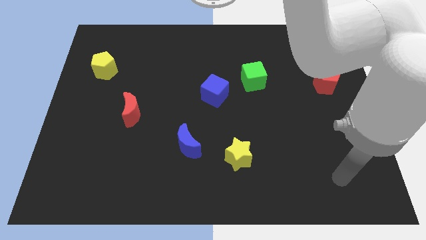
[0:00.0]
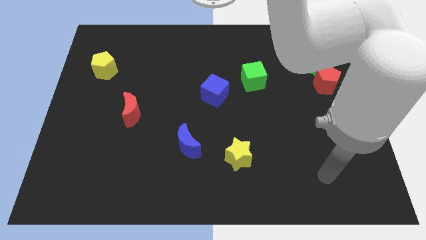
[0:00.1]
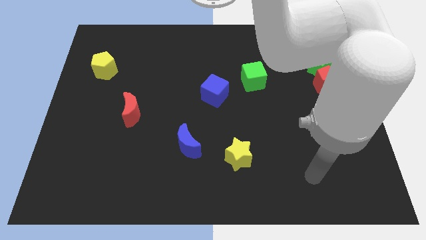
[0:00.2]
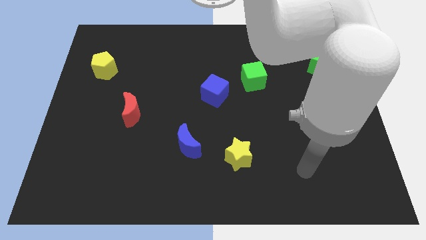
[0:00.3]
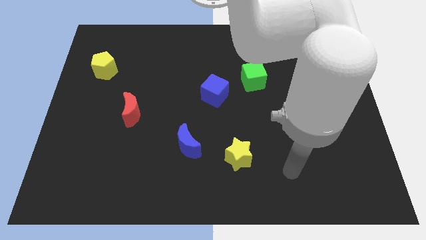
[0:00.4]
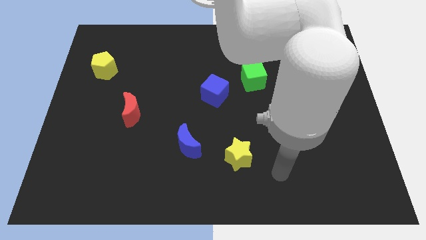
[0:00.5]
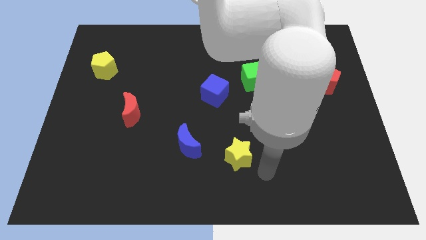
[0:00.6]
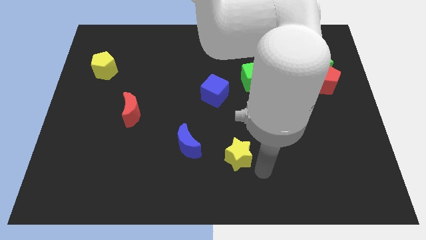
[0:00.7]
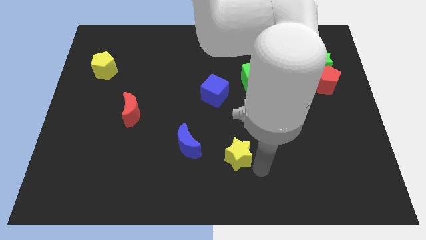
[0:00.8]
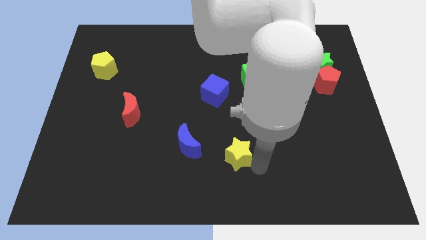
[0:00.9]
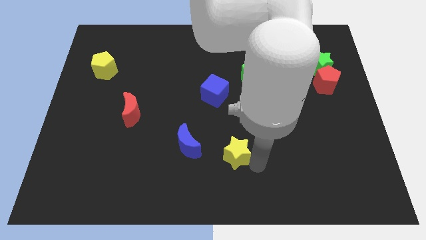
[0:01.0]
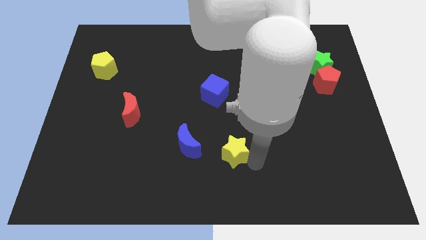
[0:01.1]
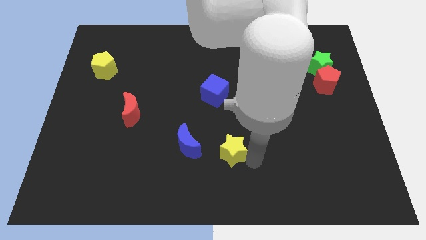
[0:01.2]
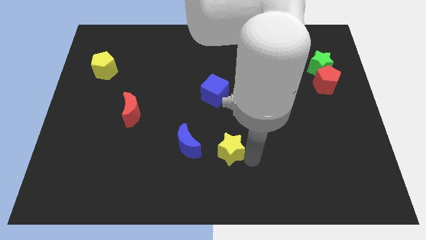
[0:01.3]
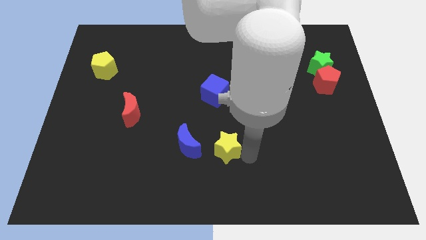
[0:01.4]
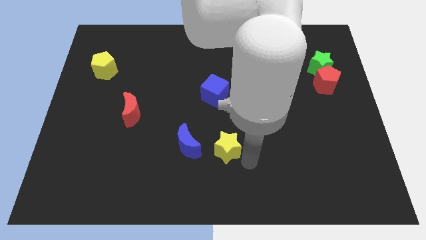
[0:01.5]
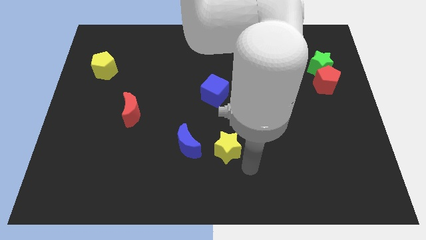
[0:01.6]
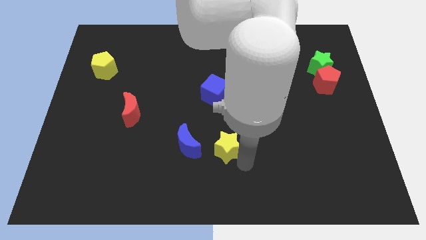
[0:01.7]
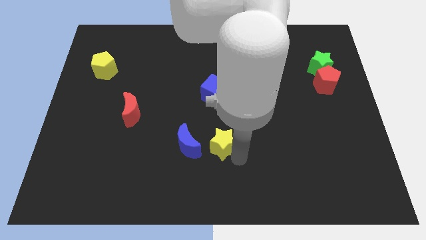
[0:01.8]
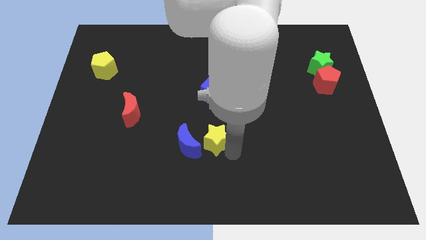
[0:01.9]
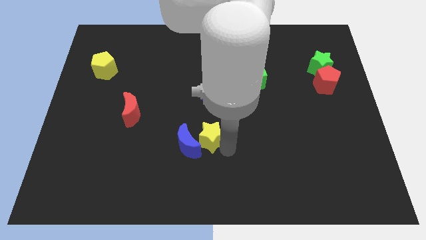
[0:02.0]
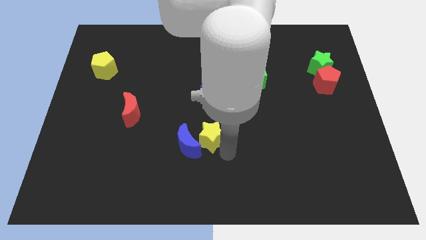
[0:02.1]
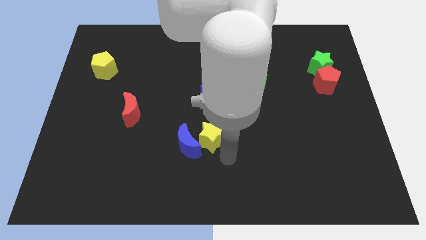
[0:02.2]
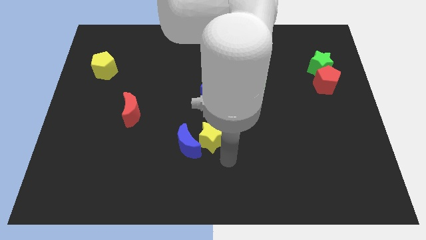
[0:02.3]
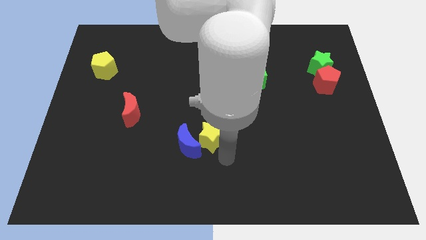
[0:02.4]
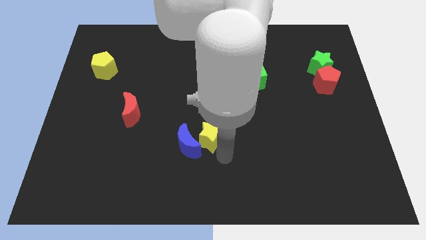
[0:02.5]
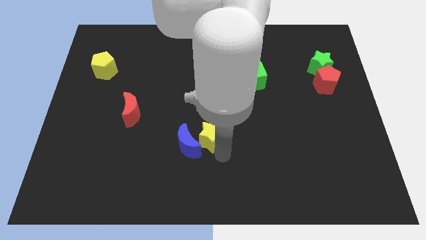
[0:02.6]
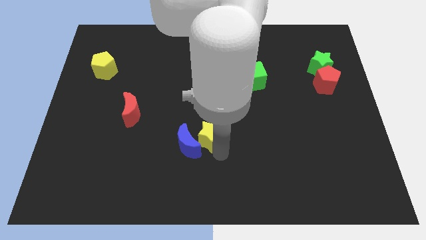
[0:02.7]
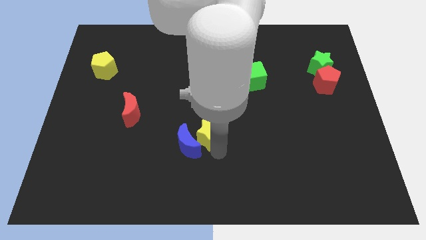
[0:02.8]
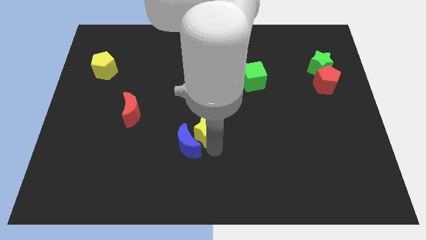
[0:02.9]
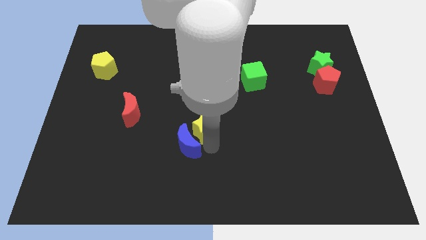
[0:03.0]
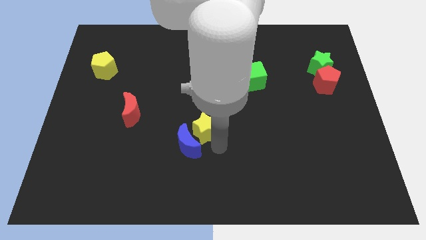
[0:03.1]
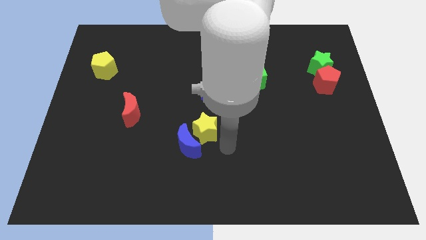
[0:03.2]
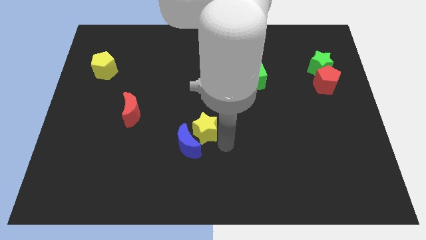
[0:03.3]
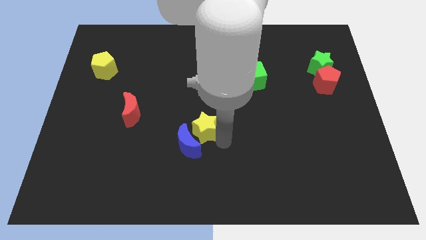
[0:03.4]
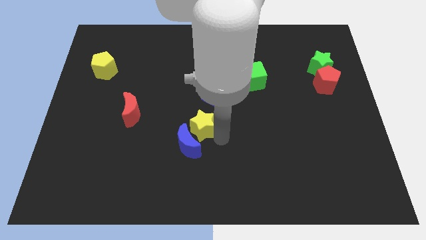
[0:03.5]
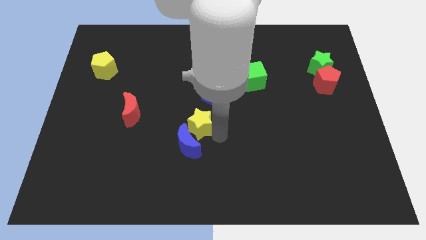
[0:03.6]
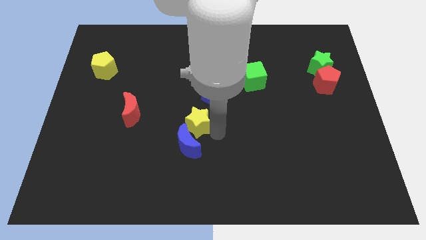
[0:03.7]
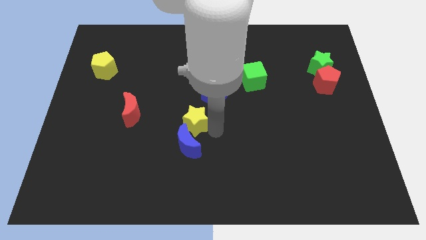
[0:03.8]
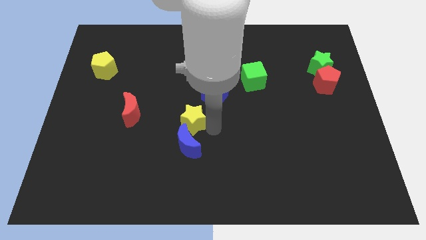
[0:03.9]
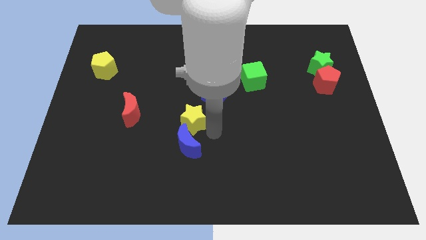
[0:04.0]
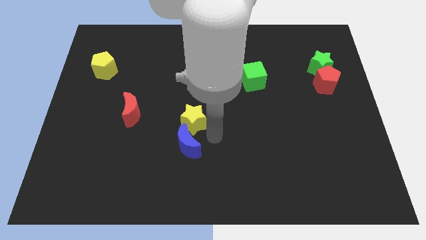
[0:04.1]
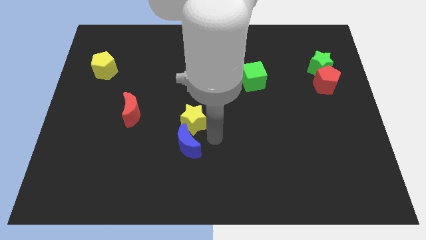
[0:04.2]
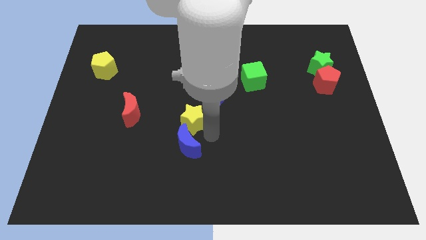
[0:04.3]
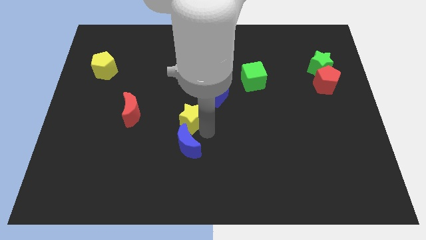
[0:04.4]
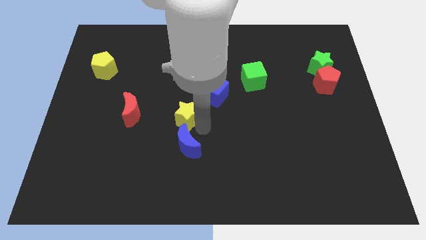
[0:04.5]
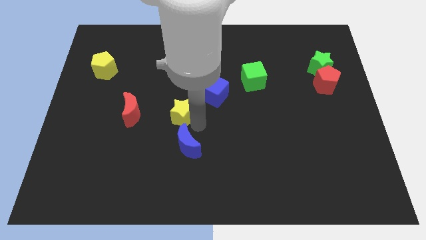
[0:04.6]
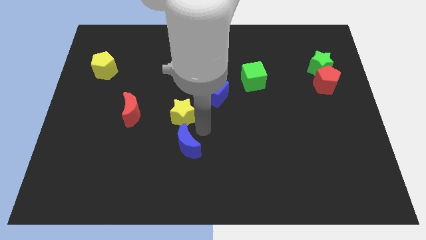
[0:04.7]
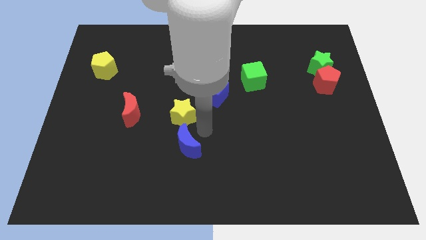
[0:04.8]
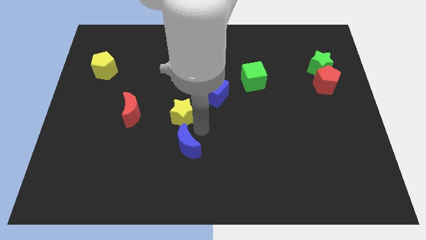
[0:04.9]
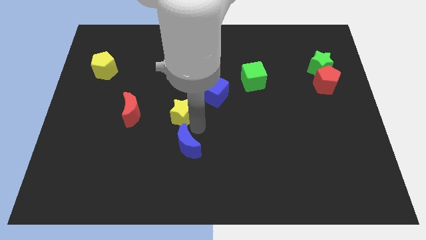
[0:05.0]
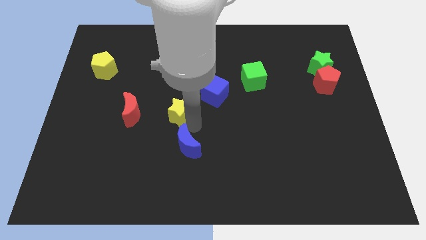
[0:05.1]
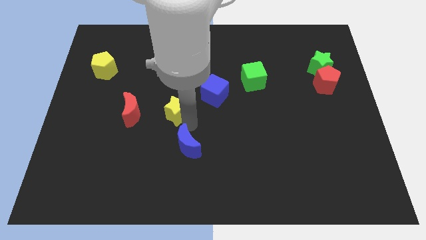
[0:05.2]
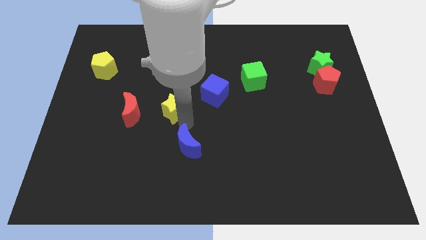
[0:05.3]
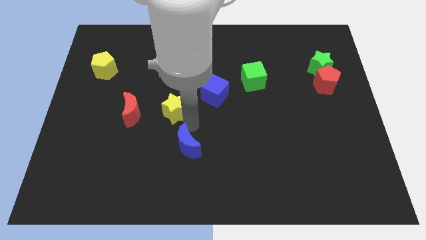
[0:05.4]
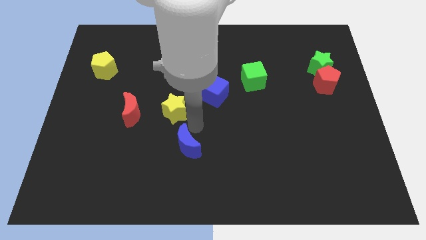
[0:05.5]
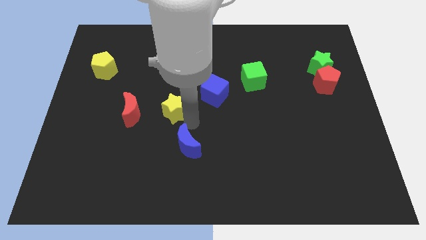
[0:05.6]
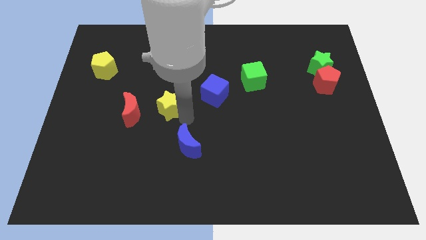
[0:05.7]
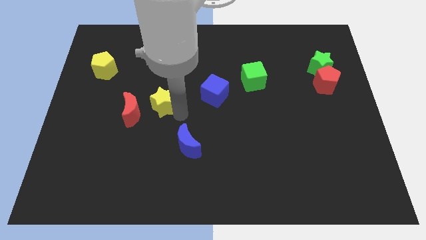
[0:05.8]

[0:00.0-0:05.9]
slide the yellow star diagonally up and to the right of the red moon

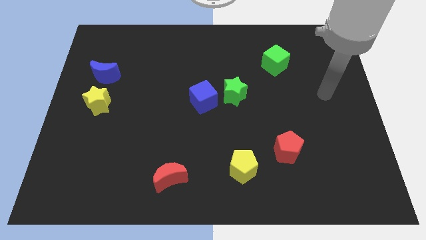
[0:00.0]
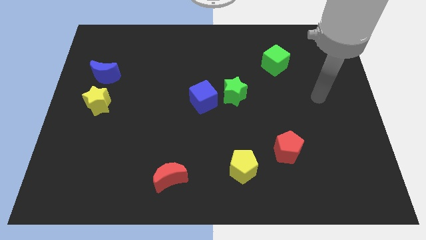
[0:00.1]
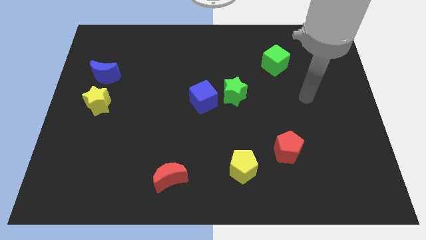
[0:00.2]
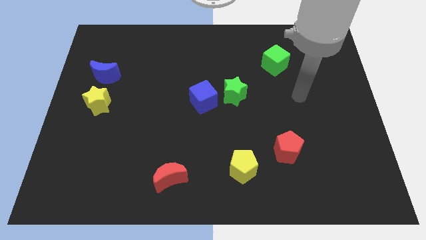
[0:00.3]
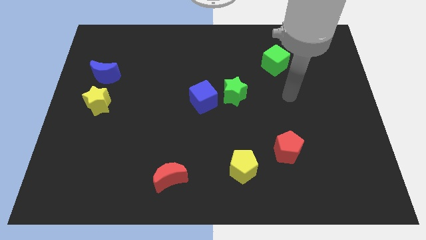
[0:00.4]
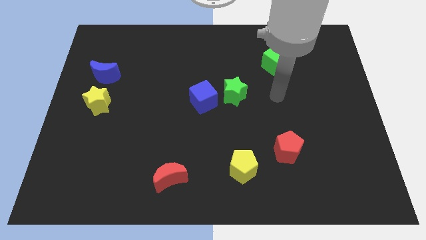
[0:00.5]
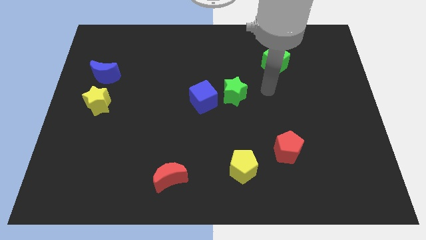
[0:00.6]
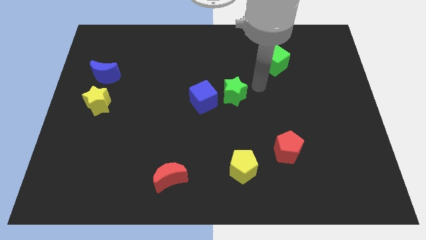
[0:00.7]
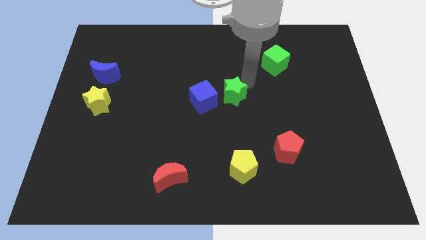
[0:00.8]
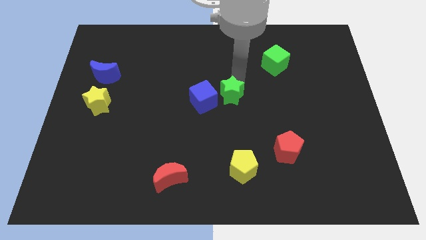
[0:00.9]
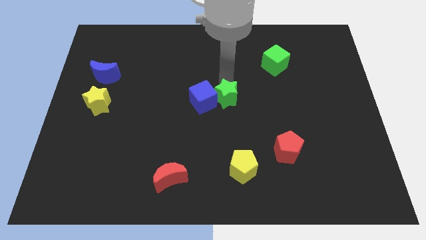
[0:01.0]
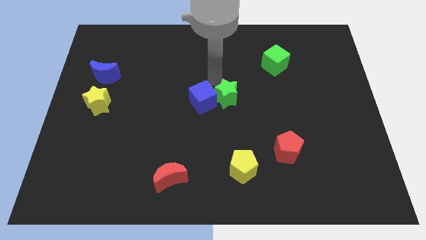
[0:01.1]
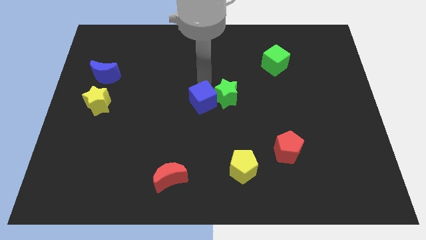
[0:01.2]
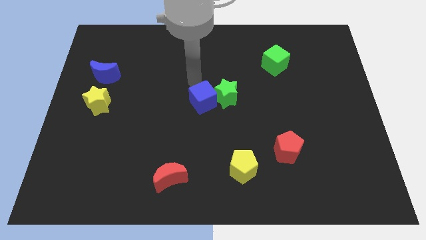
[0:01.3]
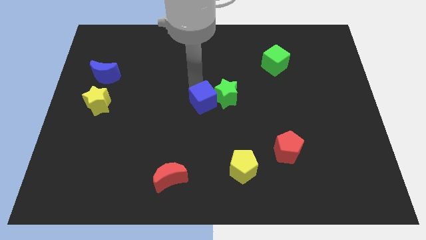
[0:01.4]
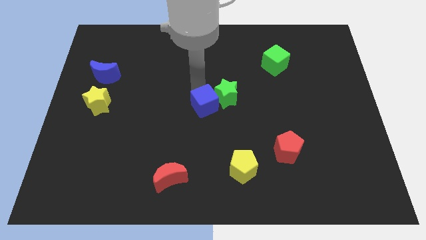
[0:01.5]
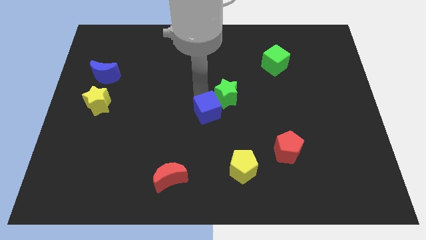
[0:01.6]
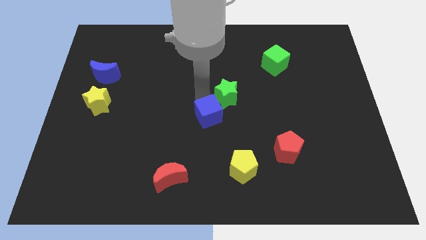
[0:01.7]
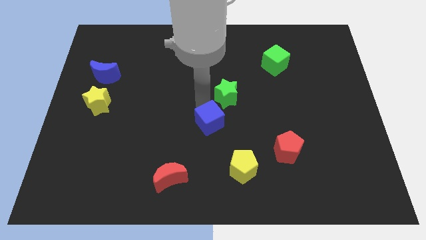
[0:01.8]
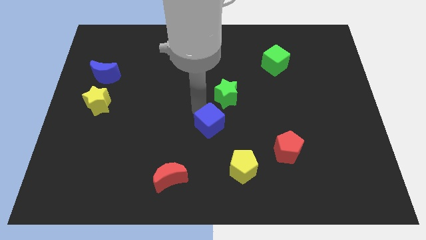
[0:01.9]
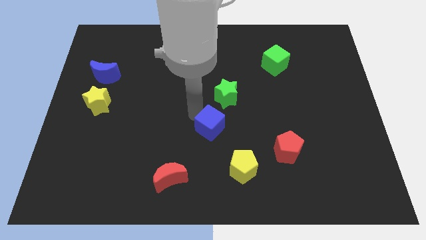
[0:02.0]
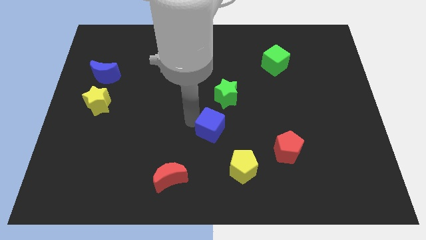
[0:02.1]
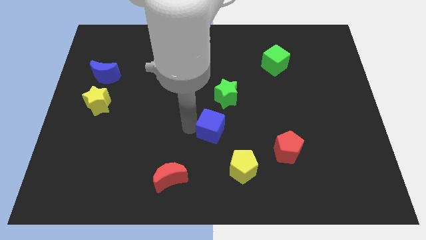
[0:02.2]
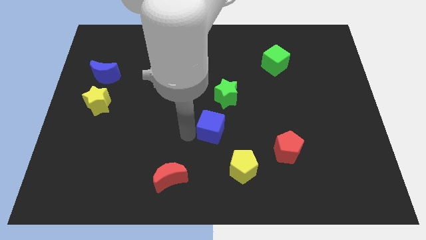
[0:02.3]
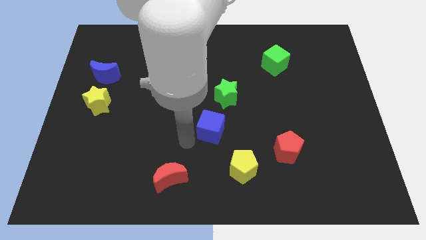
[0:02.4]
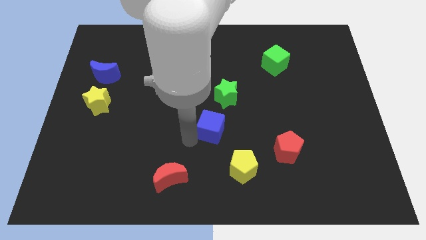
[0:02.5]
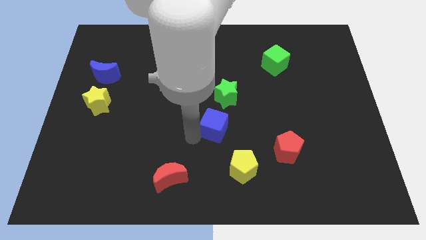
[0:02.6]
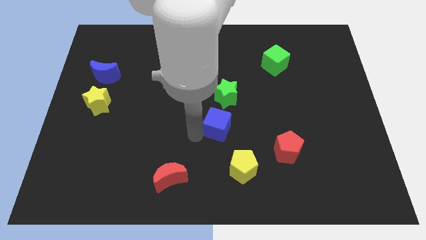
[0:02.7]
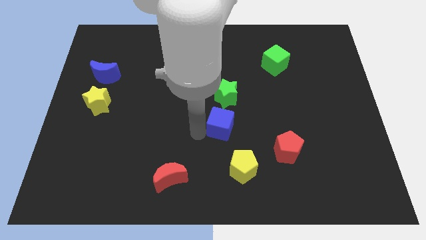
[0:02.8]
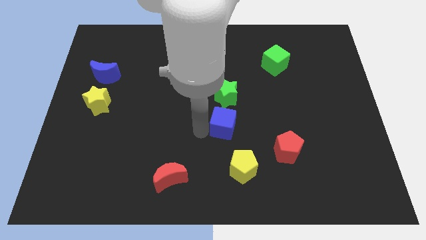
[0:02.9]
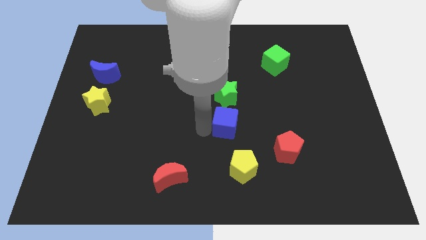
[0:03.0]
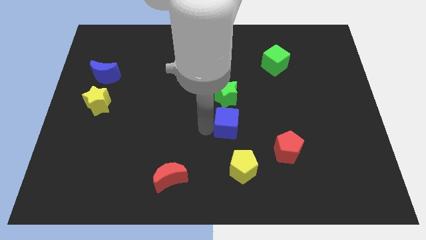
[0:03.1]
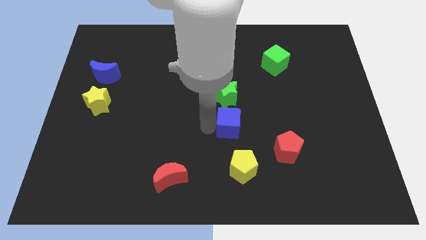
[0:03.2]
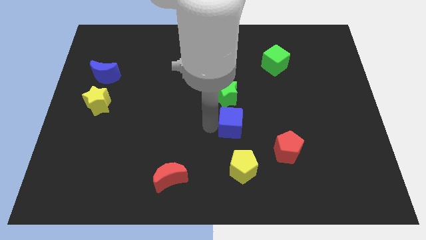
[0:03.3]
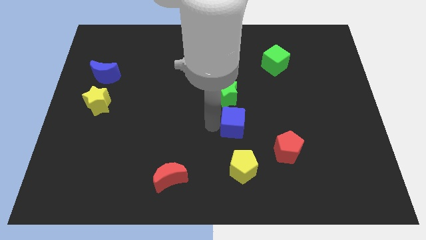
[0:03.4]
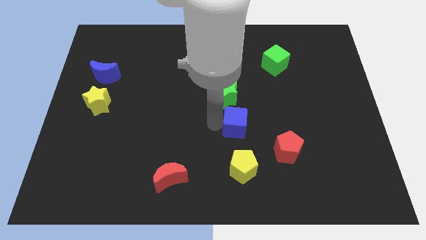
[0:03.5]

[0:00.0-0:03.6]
put the blue cube diagonally down and to the right of the green star
